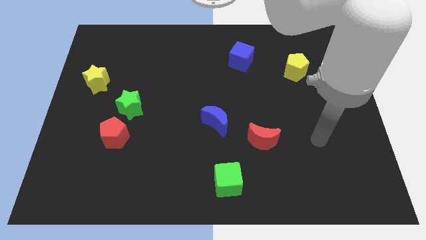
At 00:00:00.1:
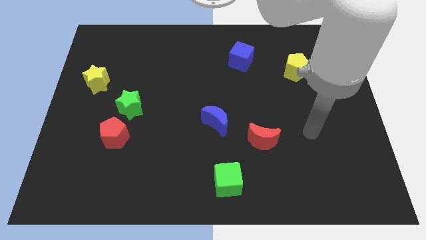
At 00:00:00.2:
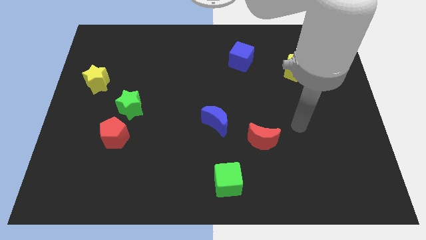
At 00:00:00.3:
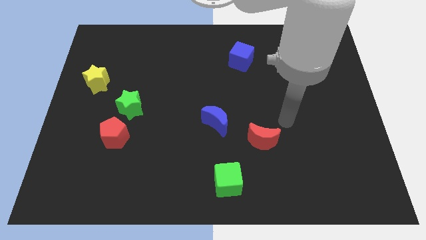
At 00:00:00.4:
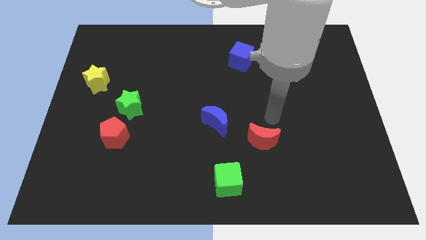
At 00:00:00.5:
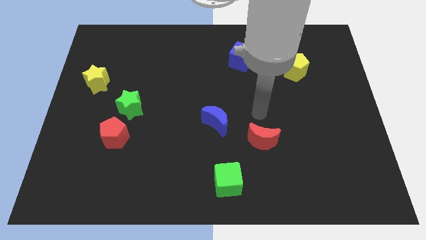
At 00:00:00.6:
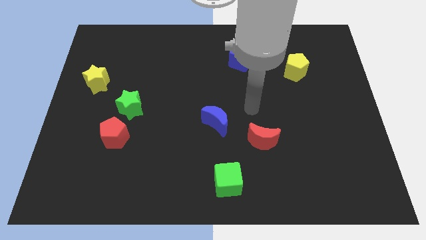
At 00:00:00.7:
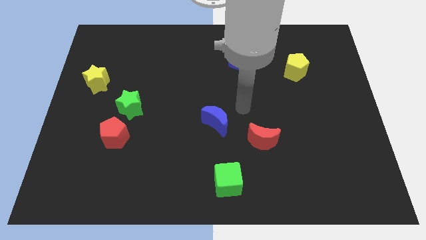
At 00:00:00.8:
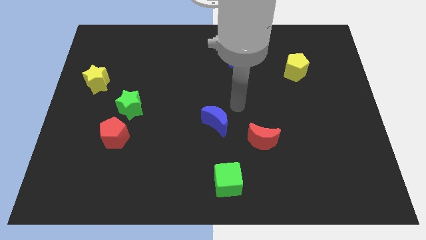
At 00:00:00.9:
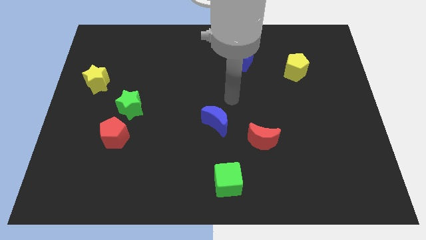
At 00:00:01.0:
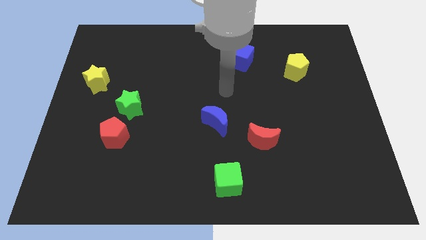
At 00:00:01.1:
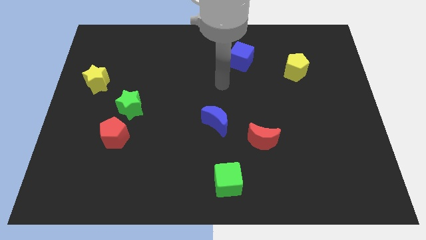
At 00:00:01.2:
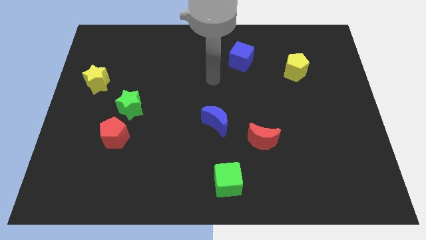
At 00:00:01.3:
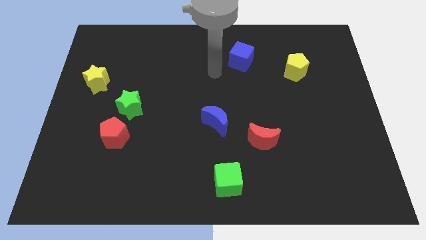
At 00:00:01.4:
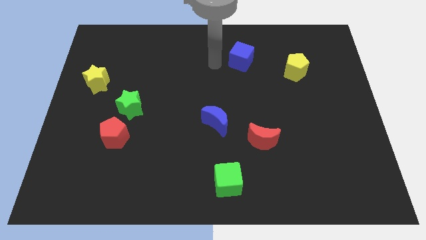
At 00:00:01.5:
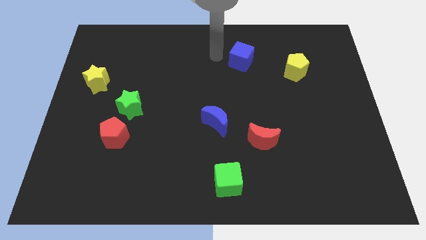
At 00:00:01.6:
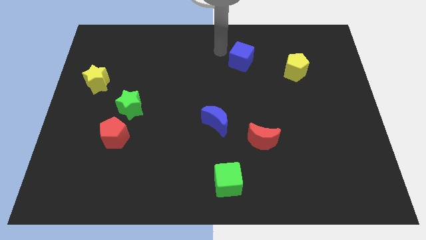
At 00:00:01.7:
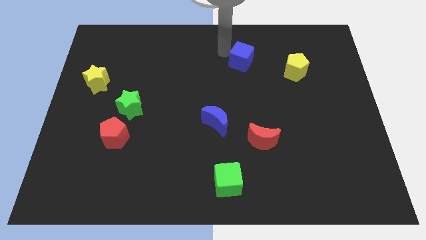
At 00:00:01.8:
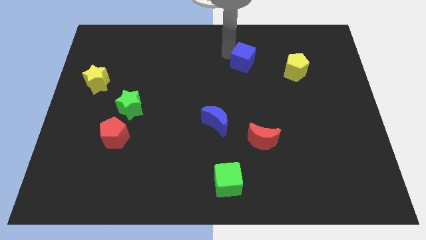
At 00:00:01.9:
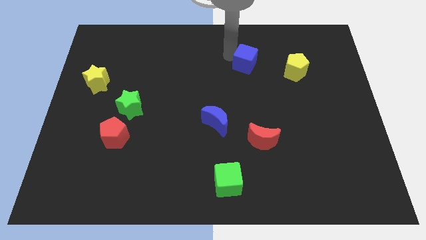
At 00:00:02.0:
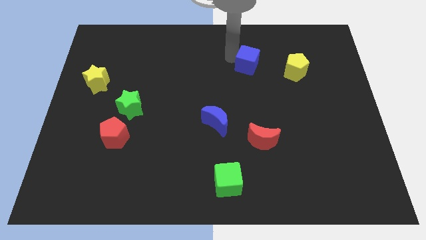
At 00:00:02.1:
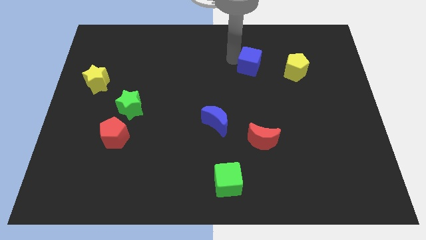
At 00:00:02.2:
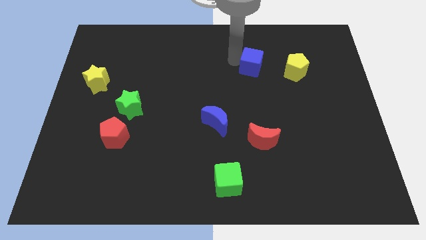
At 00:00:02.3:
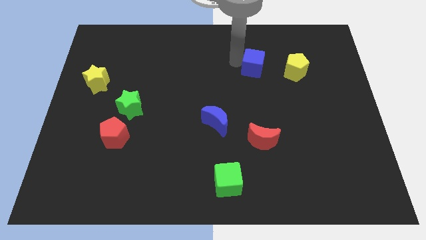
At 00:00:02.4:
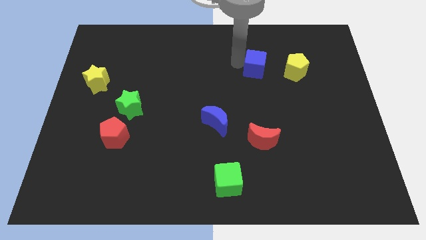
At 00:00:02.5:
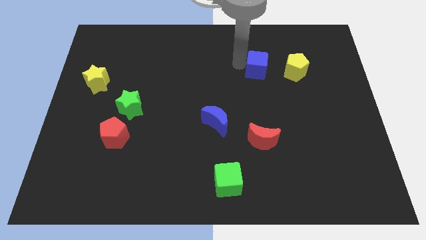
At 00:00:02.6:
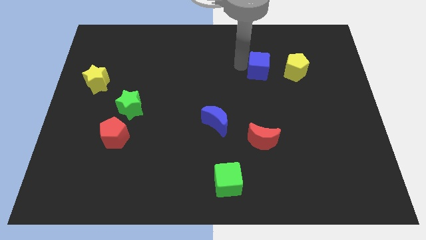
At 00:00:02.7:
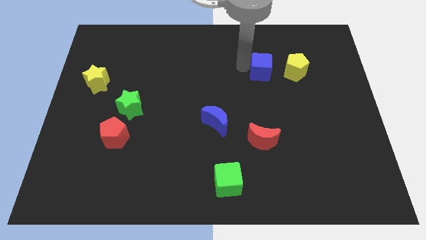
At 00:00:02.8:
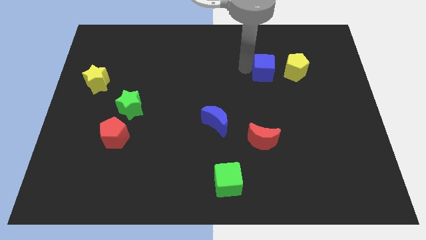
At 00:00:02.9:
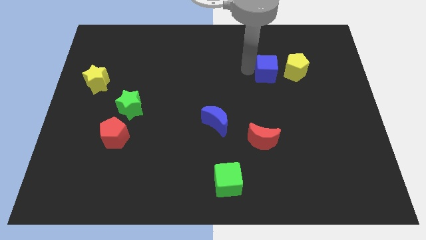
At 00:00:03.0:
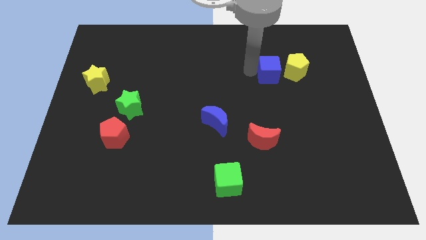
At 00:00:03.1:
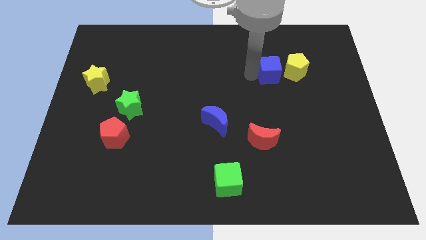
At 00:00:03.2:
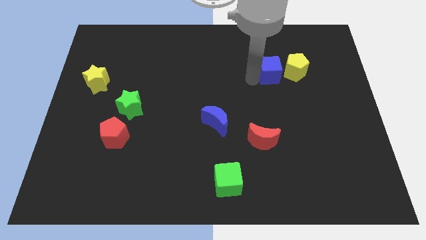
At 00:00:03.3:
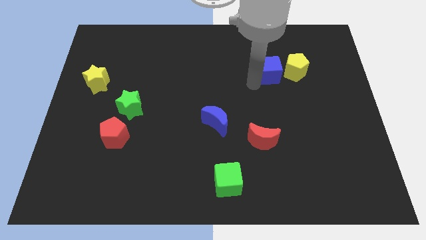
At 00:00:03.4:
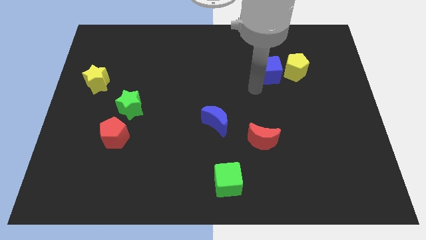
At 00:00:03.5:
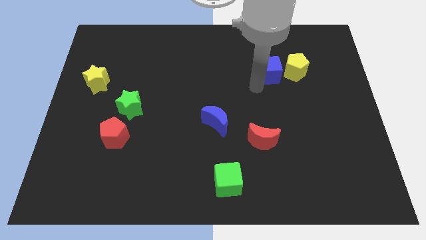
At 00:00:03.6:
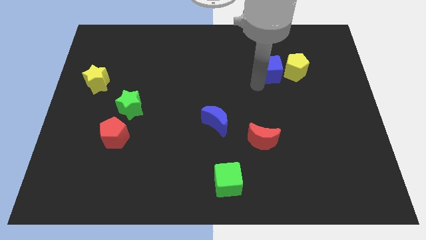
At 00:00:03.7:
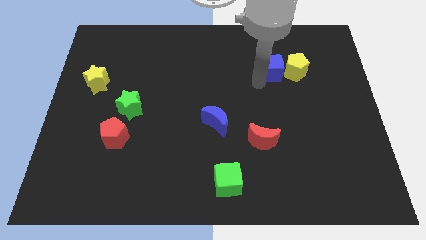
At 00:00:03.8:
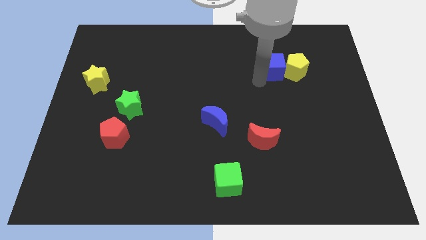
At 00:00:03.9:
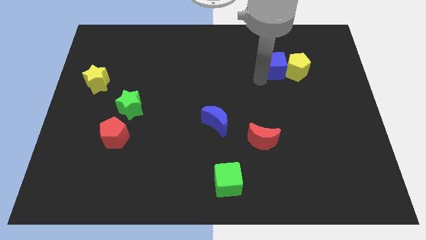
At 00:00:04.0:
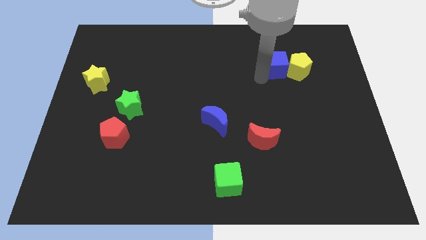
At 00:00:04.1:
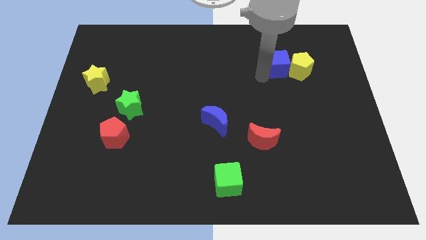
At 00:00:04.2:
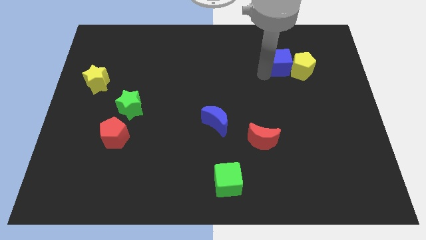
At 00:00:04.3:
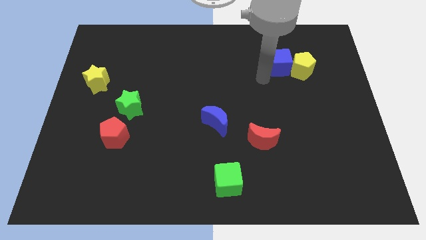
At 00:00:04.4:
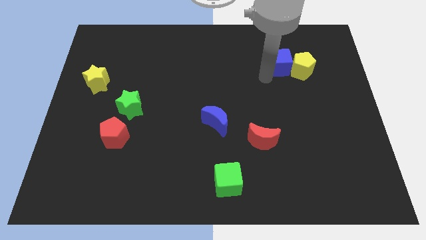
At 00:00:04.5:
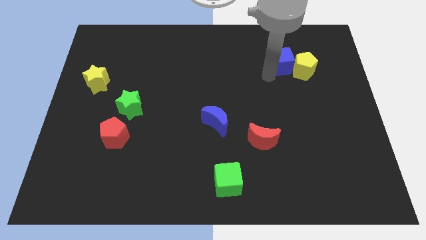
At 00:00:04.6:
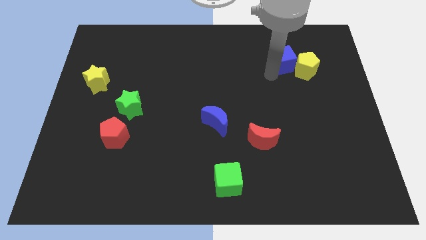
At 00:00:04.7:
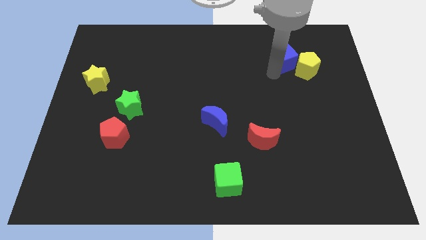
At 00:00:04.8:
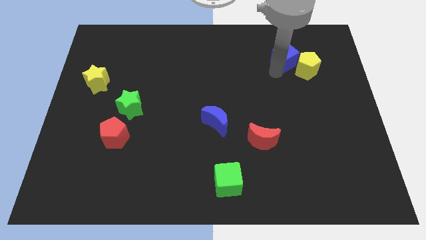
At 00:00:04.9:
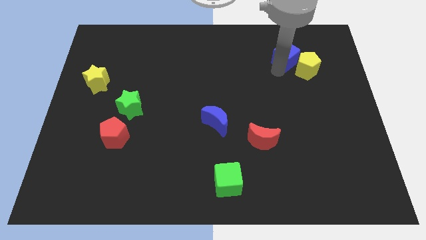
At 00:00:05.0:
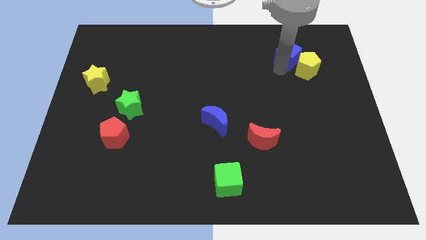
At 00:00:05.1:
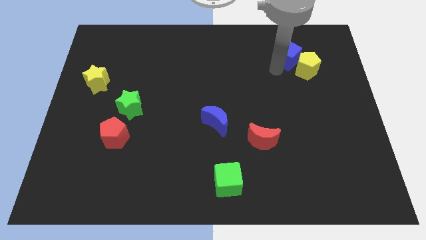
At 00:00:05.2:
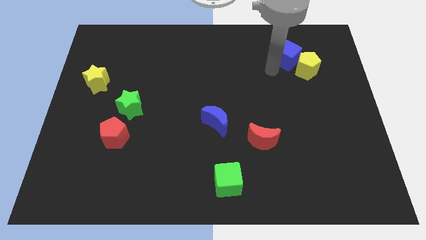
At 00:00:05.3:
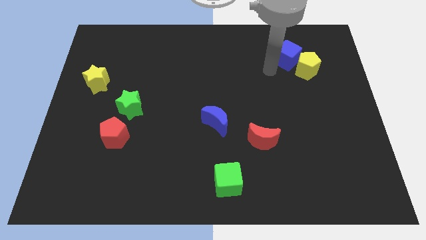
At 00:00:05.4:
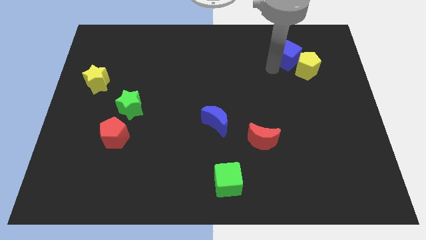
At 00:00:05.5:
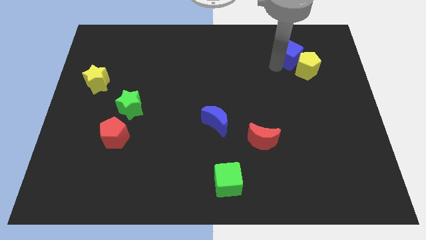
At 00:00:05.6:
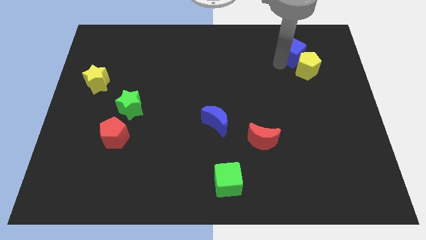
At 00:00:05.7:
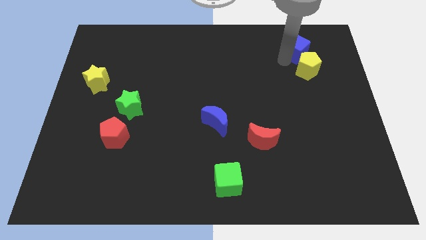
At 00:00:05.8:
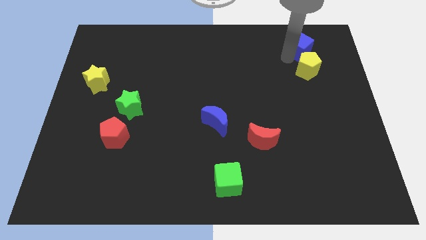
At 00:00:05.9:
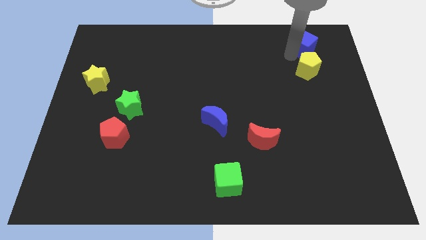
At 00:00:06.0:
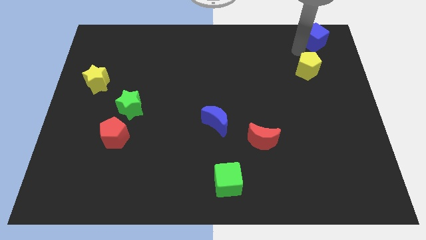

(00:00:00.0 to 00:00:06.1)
push the blue cube to the top right corner
